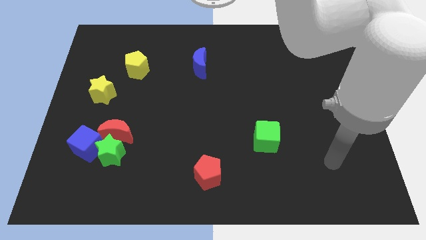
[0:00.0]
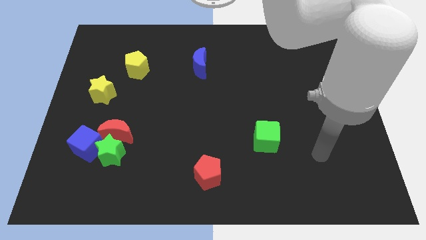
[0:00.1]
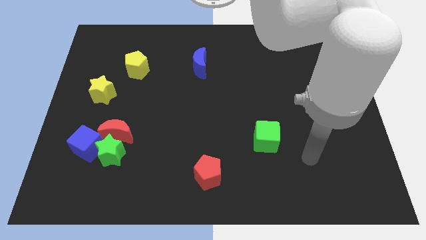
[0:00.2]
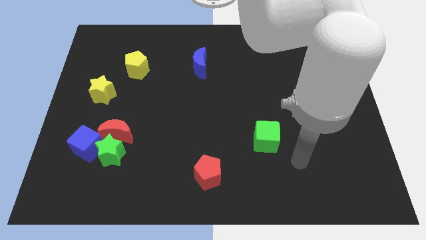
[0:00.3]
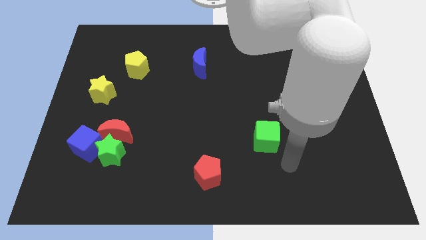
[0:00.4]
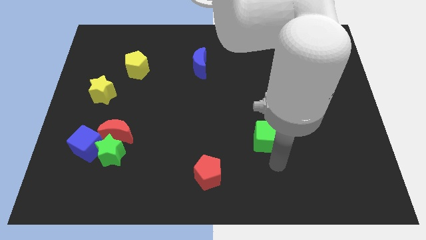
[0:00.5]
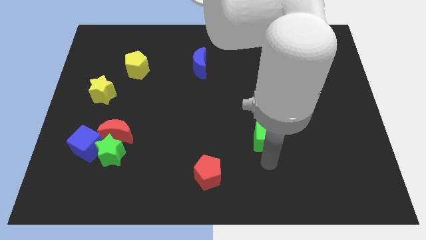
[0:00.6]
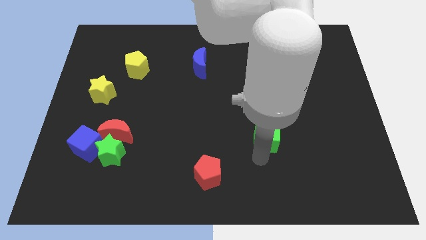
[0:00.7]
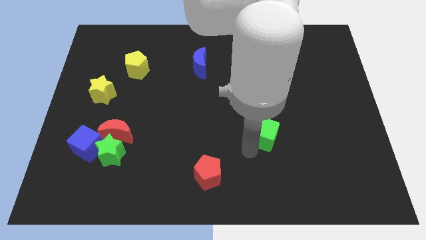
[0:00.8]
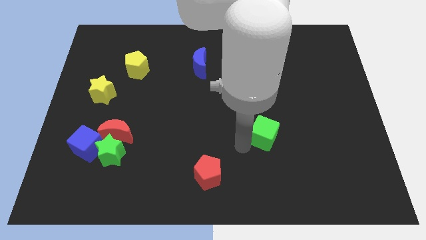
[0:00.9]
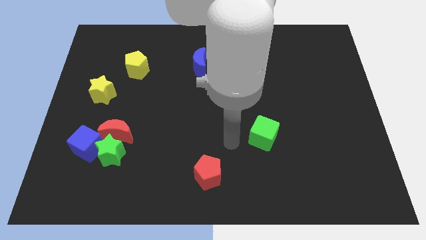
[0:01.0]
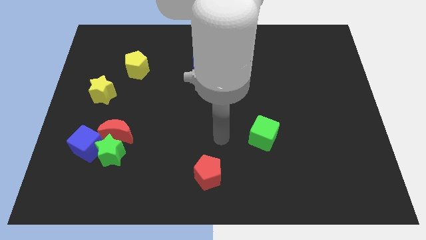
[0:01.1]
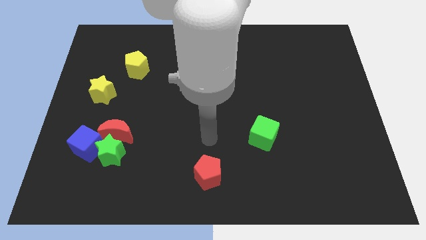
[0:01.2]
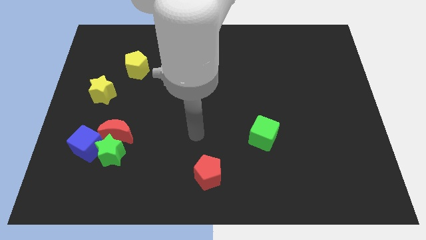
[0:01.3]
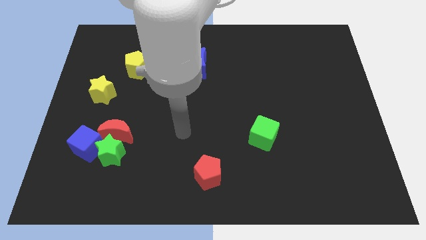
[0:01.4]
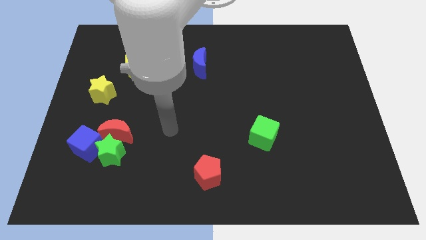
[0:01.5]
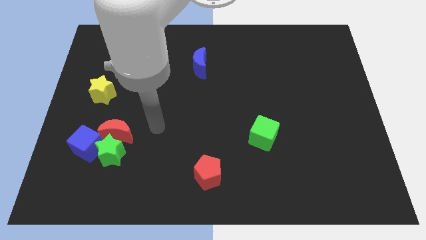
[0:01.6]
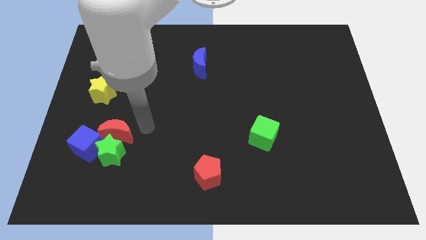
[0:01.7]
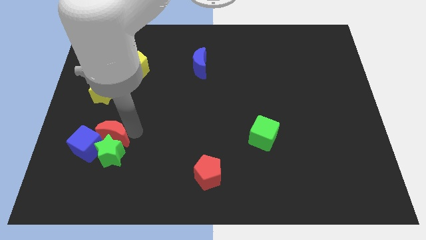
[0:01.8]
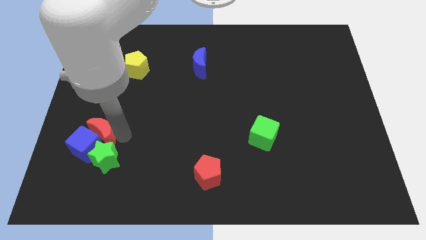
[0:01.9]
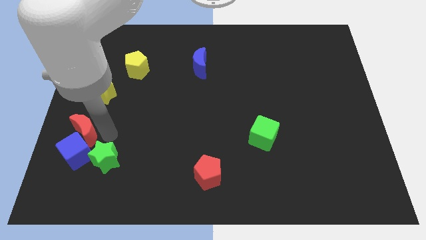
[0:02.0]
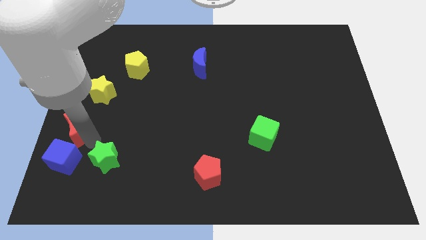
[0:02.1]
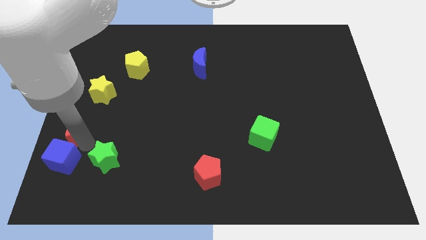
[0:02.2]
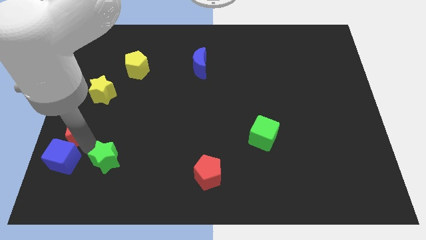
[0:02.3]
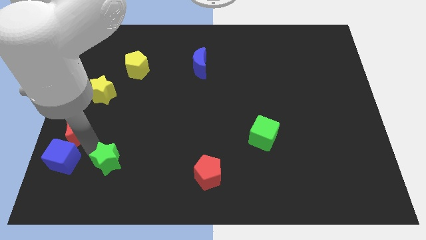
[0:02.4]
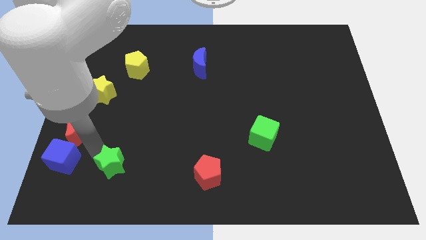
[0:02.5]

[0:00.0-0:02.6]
pull the green star apart from the red moon and blue cube

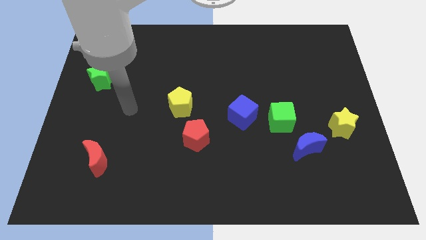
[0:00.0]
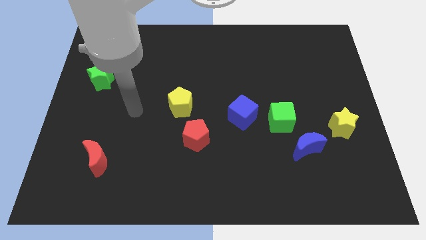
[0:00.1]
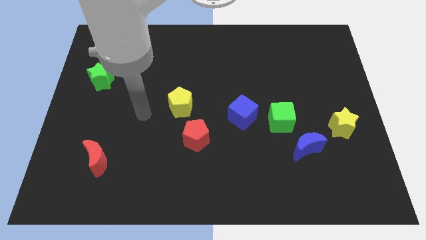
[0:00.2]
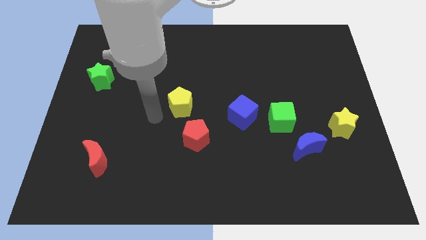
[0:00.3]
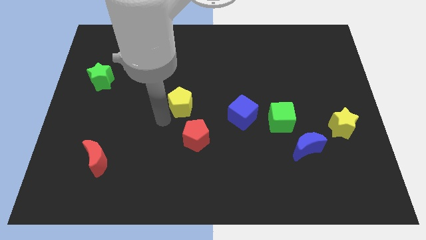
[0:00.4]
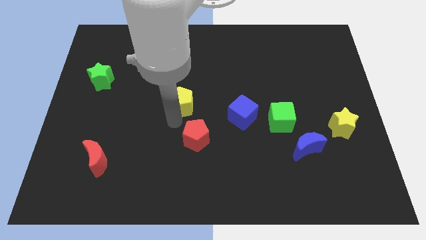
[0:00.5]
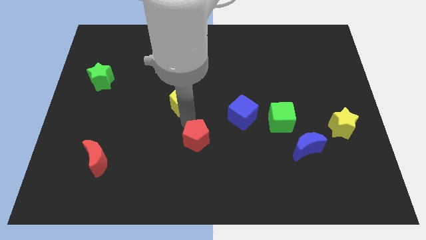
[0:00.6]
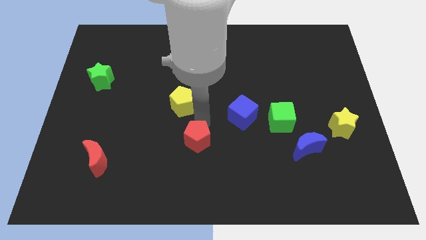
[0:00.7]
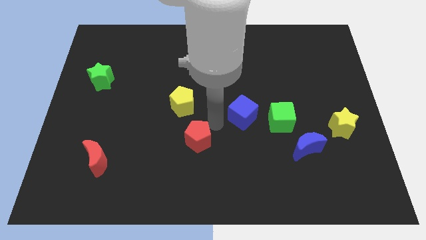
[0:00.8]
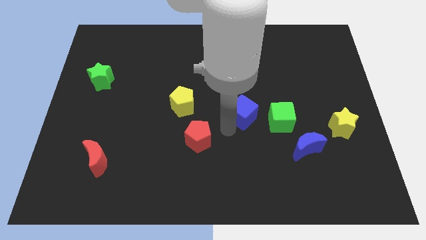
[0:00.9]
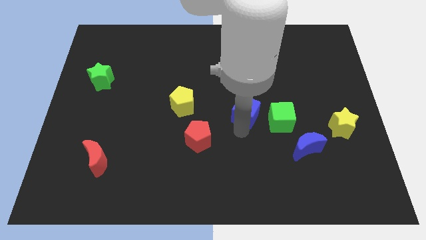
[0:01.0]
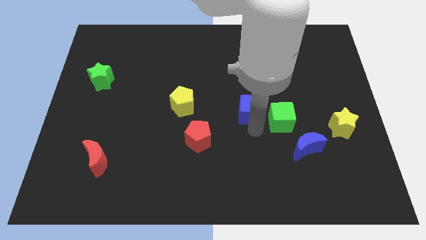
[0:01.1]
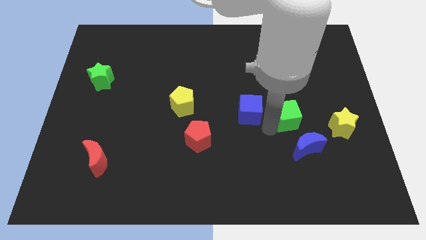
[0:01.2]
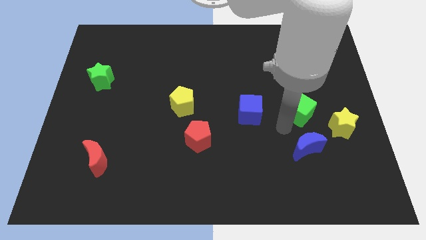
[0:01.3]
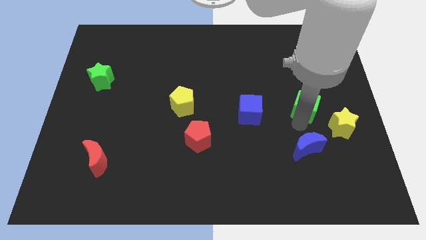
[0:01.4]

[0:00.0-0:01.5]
pull the blue moon apart from the green cube

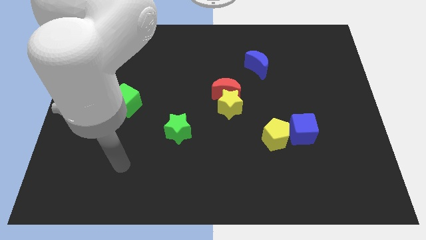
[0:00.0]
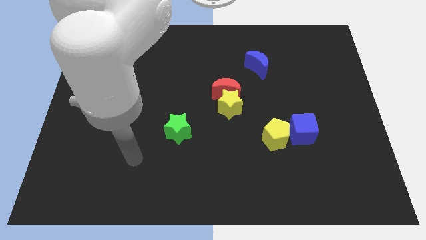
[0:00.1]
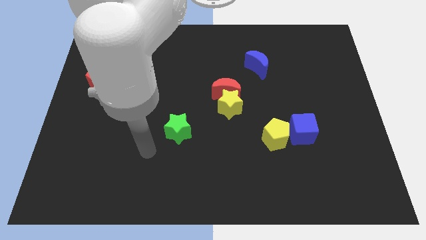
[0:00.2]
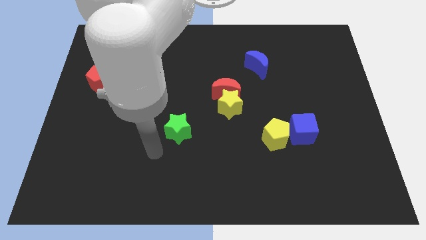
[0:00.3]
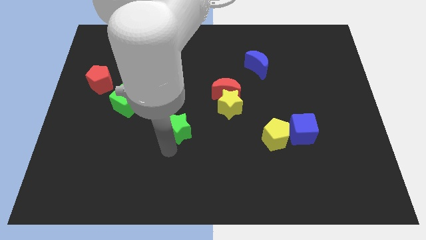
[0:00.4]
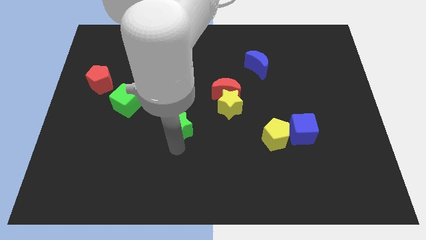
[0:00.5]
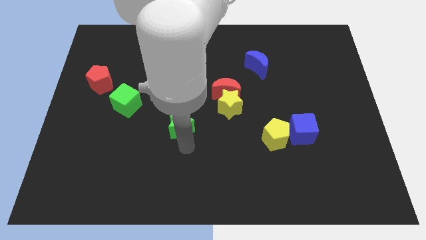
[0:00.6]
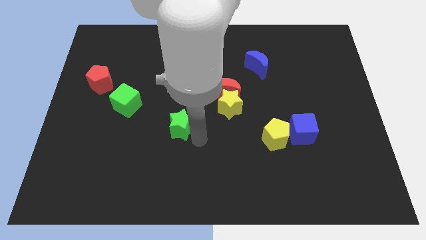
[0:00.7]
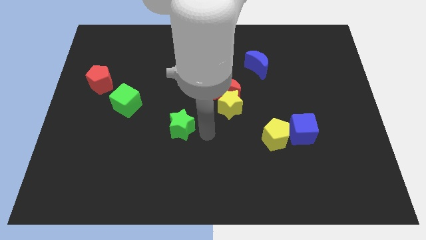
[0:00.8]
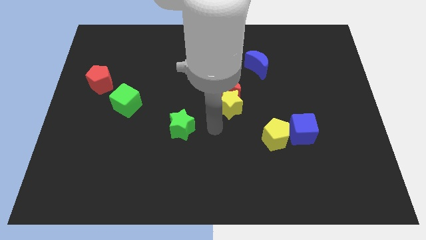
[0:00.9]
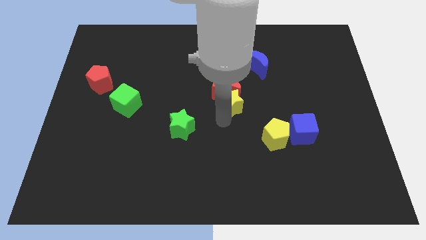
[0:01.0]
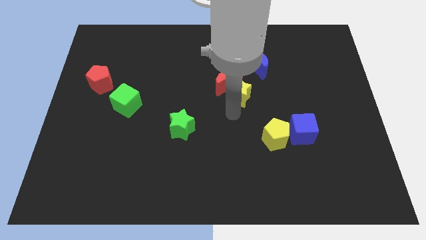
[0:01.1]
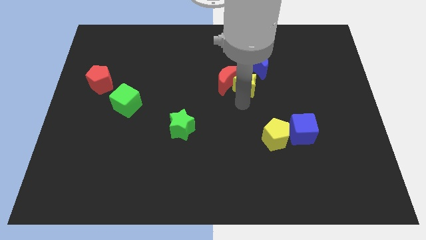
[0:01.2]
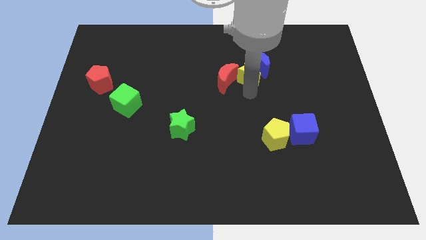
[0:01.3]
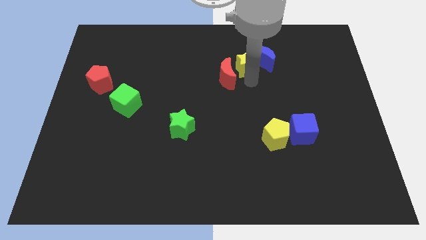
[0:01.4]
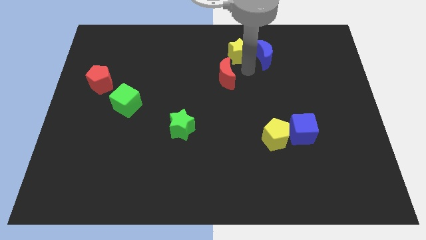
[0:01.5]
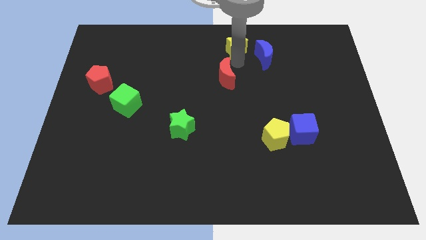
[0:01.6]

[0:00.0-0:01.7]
separate the red moon from the yellow star

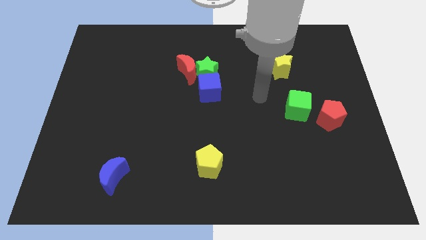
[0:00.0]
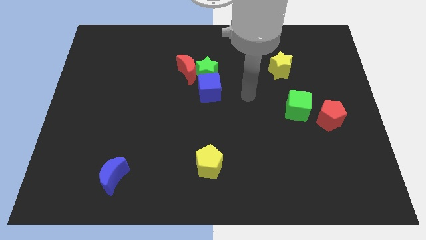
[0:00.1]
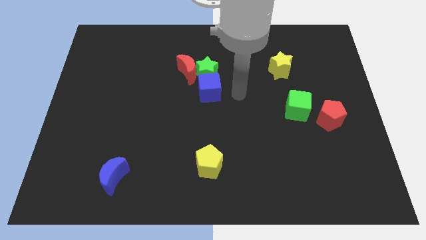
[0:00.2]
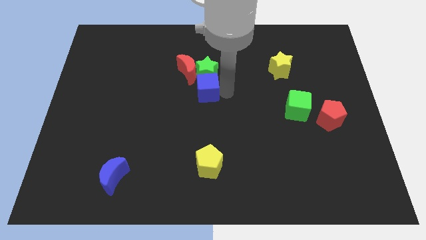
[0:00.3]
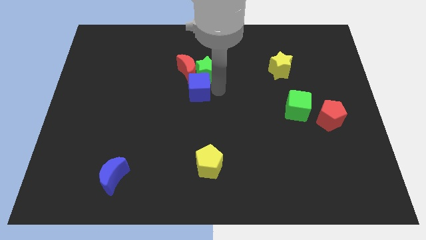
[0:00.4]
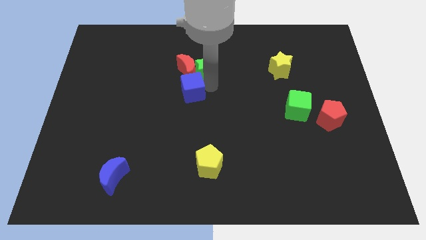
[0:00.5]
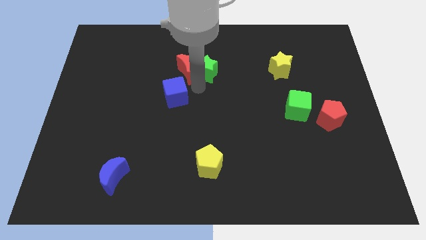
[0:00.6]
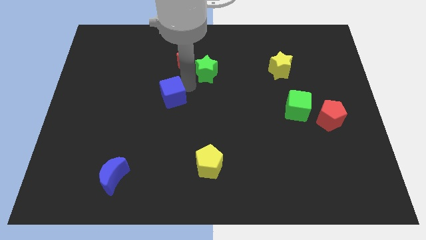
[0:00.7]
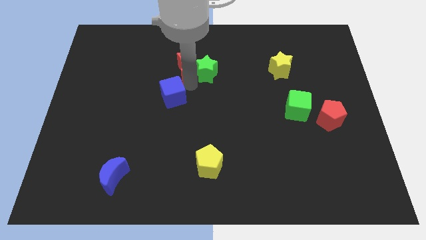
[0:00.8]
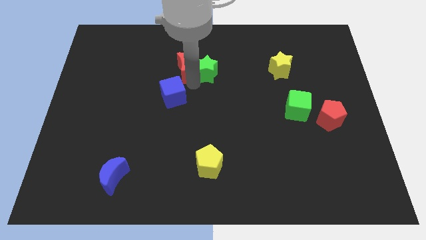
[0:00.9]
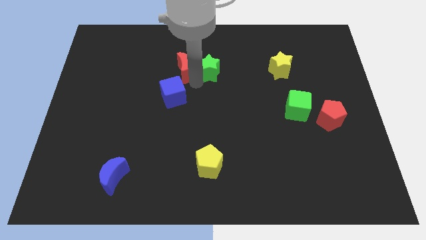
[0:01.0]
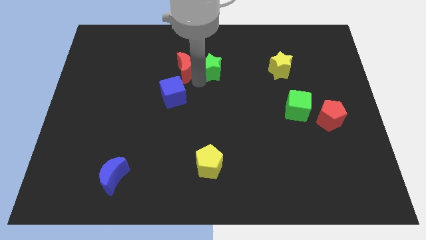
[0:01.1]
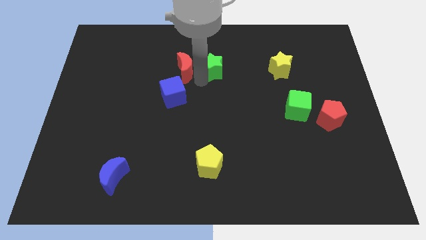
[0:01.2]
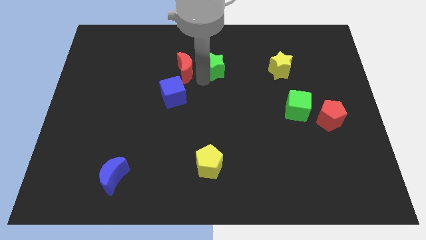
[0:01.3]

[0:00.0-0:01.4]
separate the green star from the red moon and blue cube

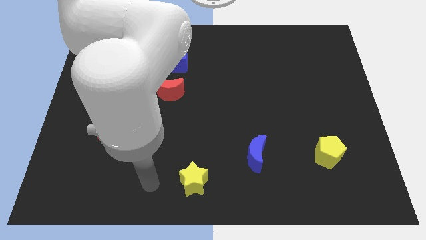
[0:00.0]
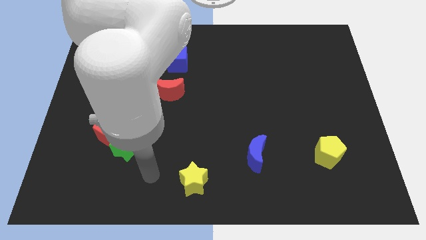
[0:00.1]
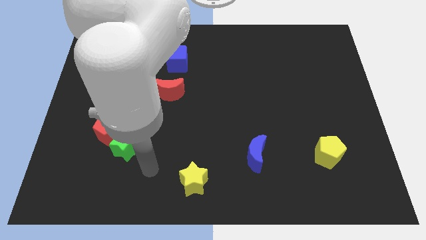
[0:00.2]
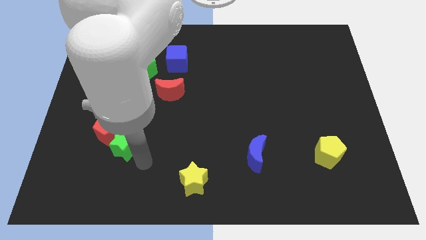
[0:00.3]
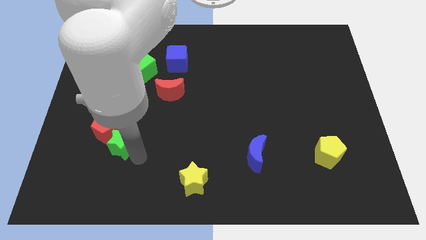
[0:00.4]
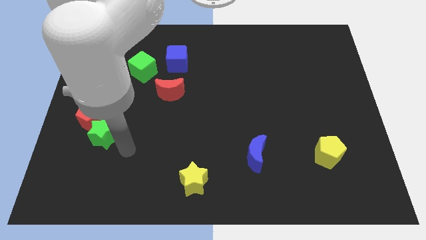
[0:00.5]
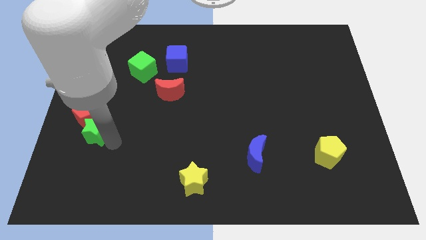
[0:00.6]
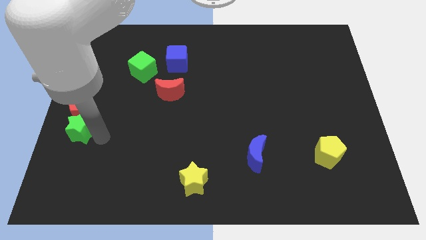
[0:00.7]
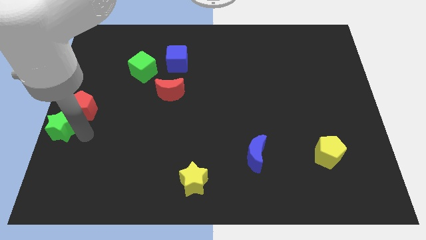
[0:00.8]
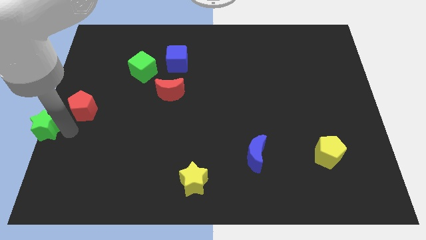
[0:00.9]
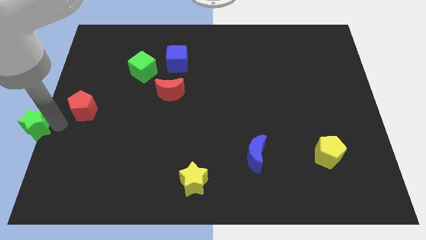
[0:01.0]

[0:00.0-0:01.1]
separate the red pentagon from the green star

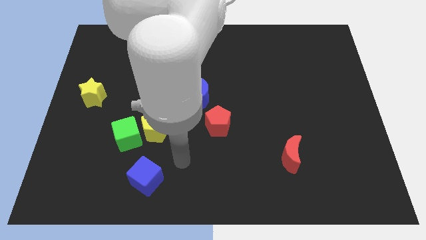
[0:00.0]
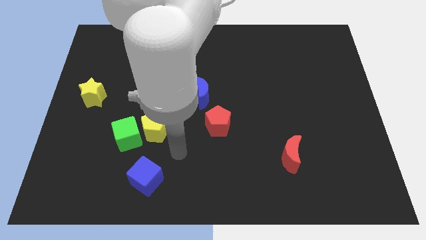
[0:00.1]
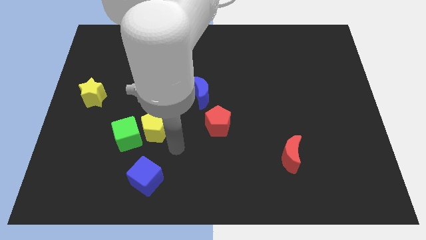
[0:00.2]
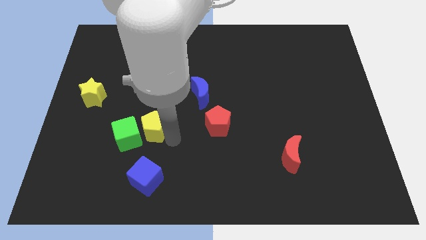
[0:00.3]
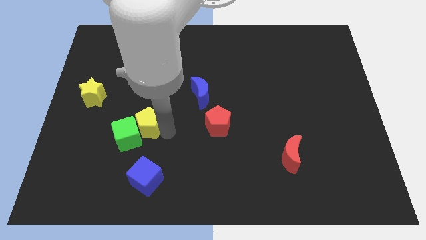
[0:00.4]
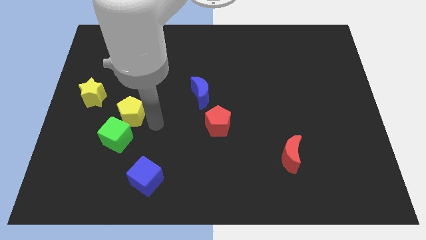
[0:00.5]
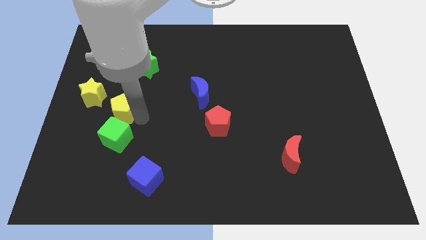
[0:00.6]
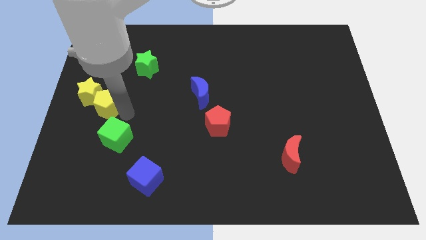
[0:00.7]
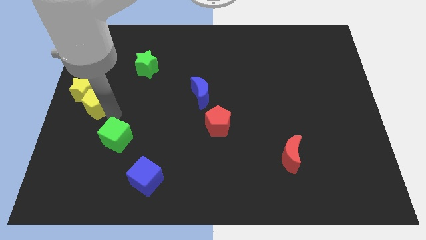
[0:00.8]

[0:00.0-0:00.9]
move the green cube away from the yellow pentagon
